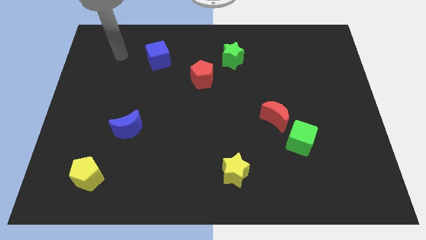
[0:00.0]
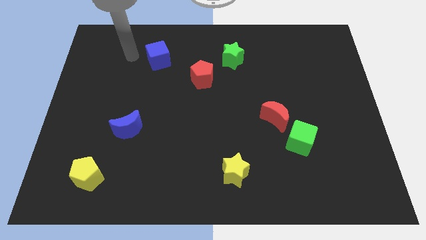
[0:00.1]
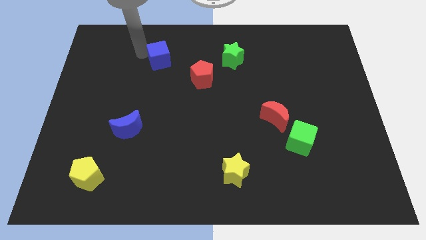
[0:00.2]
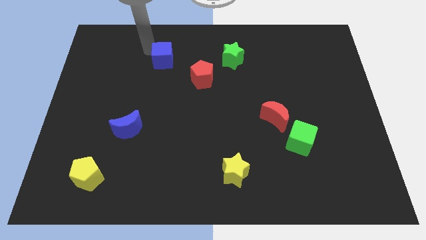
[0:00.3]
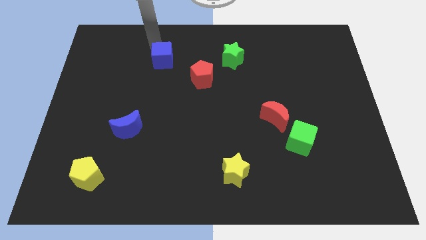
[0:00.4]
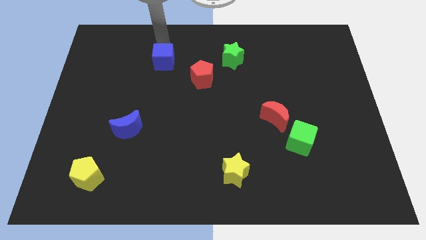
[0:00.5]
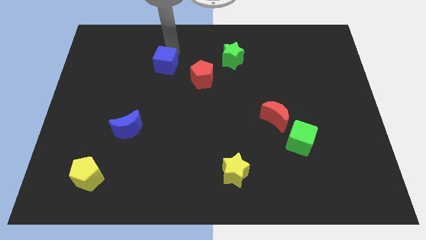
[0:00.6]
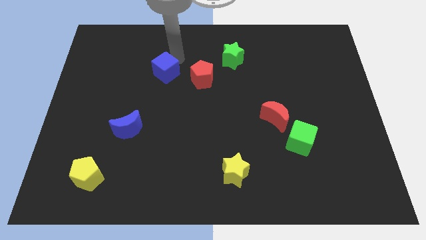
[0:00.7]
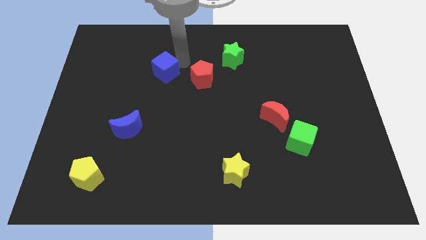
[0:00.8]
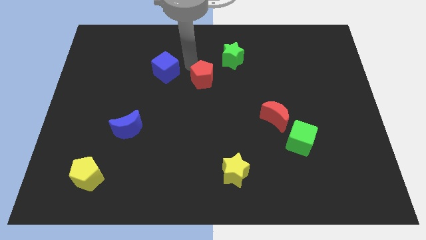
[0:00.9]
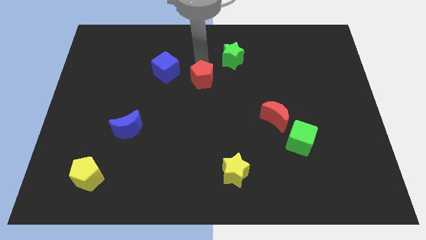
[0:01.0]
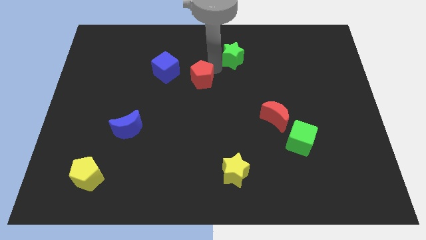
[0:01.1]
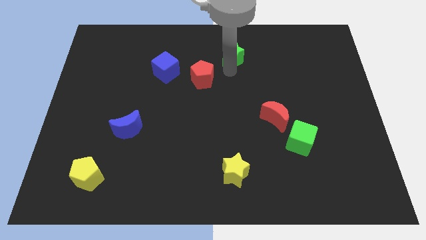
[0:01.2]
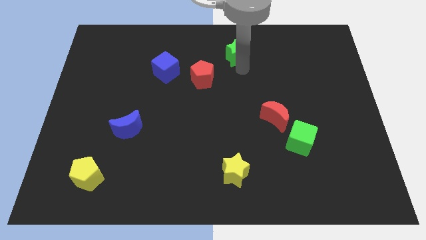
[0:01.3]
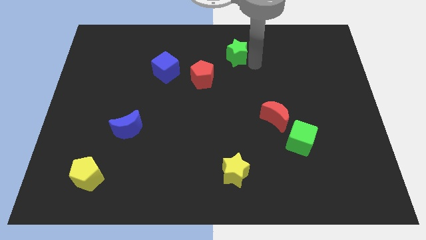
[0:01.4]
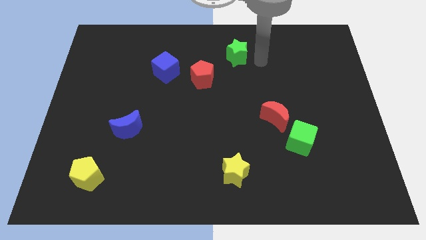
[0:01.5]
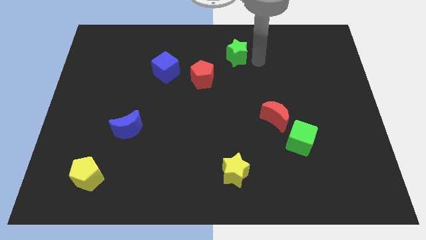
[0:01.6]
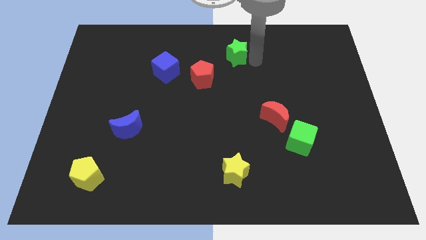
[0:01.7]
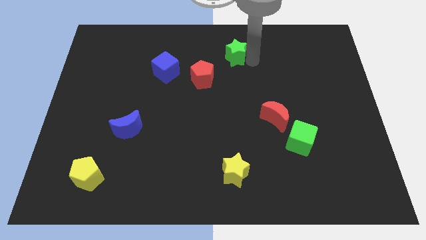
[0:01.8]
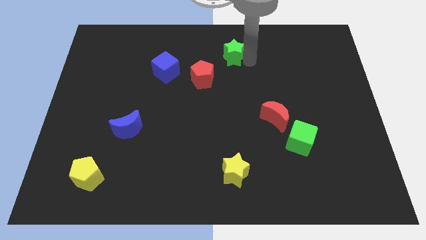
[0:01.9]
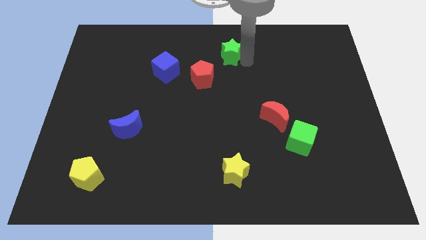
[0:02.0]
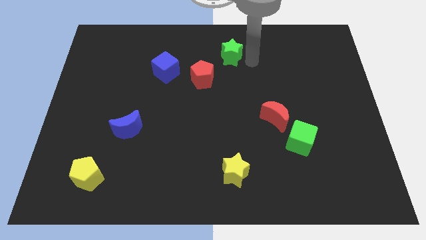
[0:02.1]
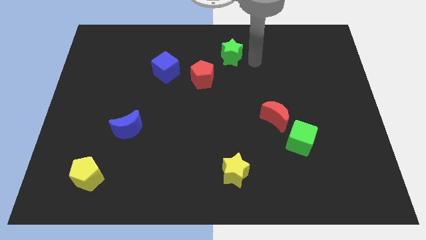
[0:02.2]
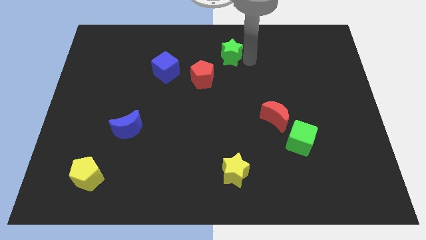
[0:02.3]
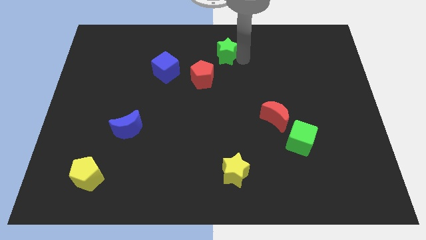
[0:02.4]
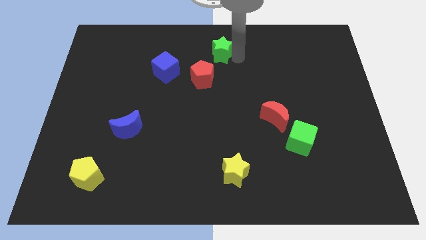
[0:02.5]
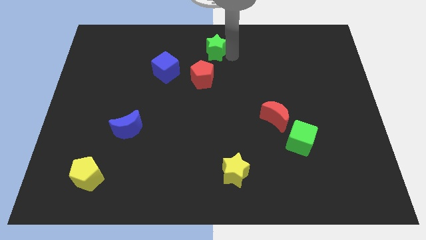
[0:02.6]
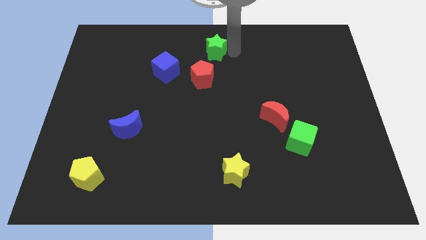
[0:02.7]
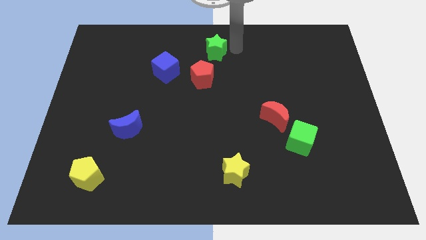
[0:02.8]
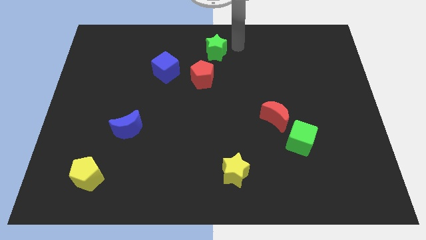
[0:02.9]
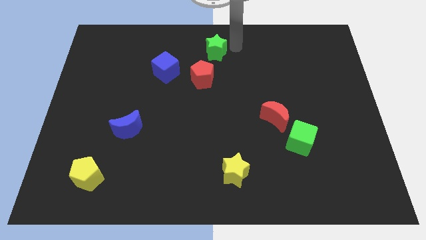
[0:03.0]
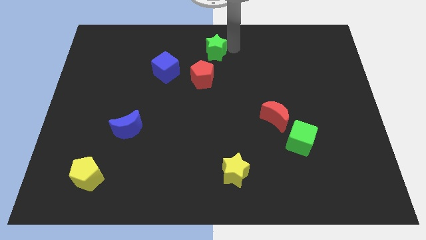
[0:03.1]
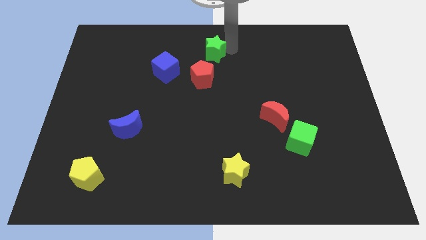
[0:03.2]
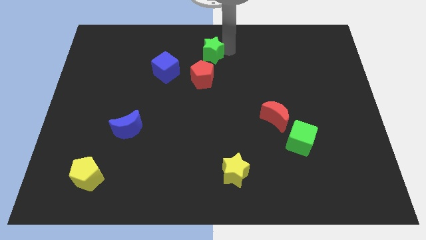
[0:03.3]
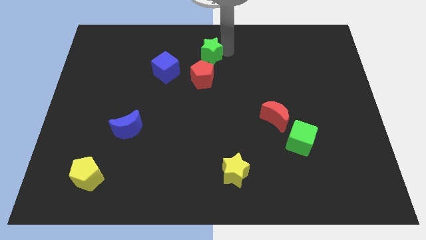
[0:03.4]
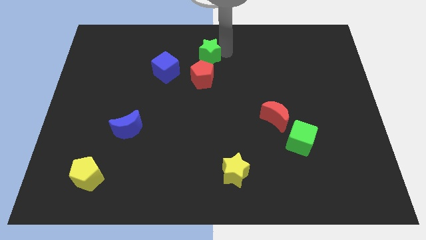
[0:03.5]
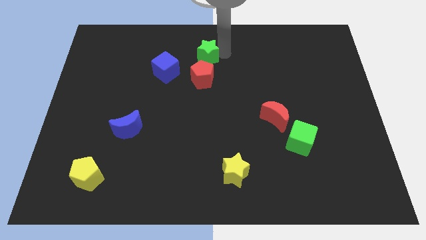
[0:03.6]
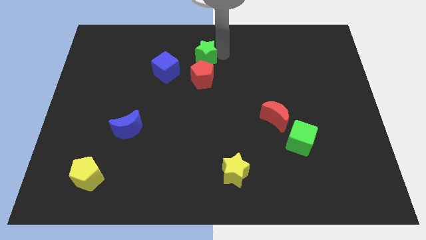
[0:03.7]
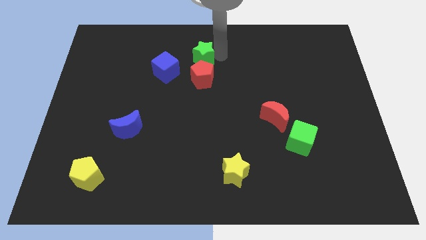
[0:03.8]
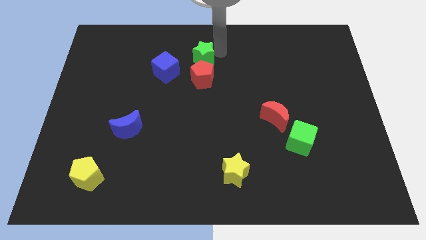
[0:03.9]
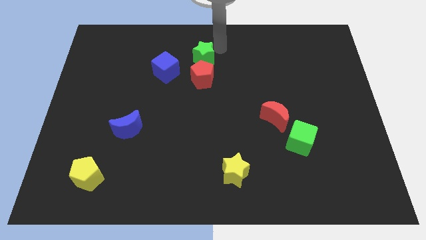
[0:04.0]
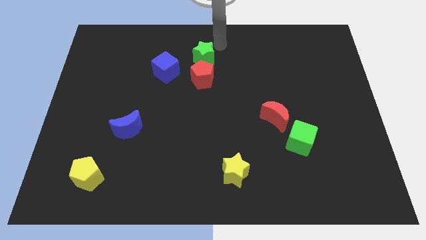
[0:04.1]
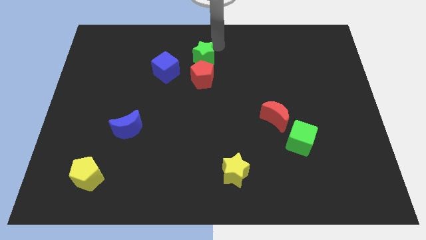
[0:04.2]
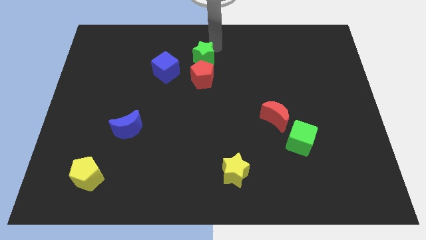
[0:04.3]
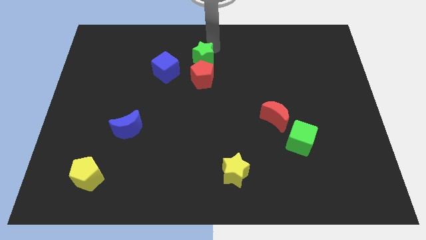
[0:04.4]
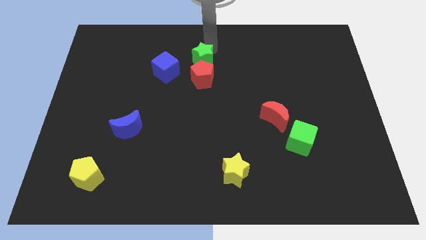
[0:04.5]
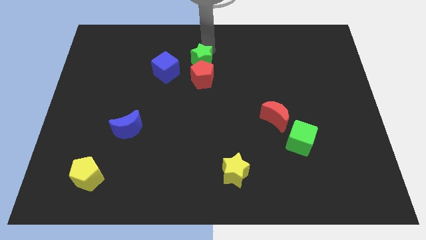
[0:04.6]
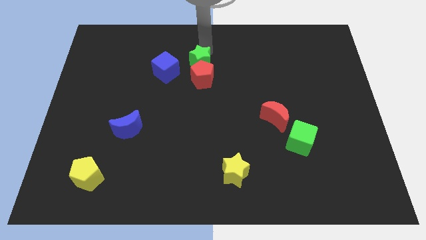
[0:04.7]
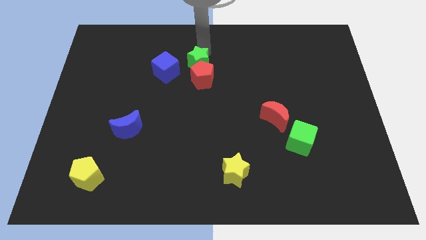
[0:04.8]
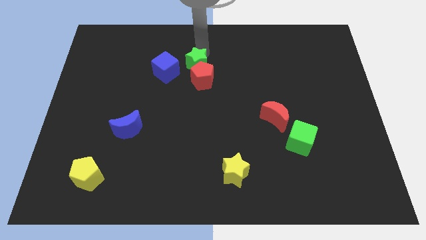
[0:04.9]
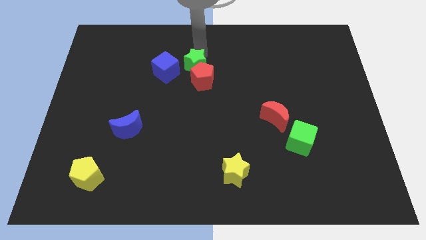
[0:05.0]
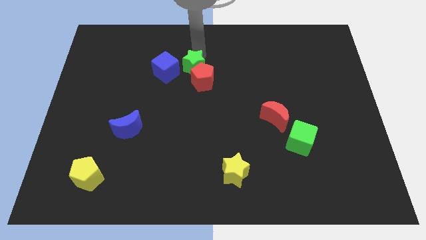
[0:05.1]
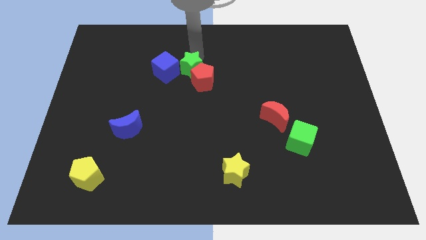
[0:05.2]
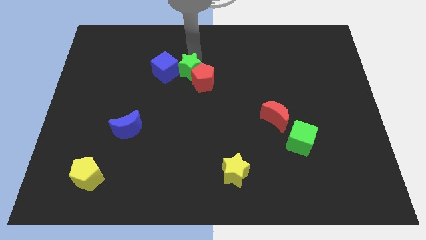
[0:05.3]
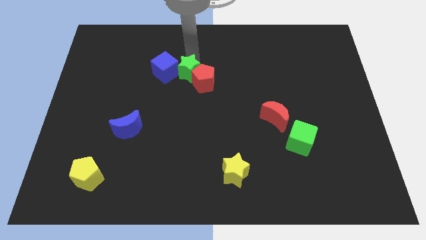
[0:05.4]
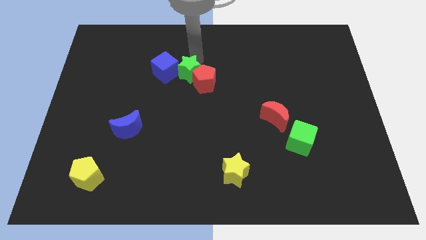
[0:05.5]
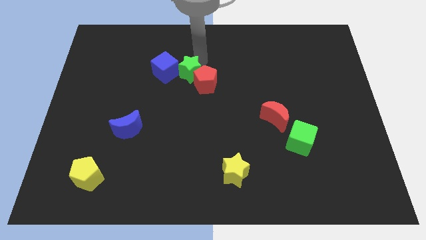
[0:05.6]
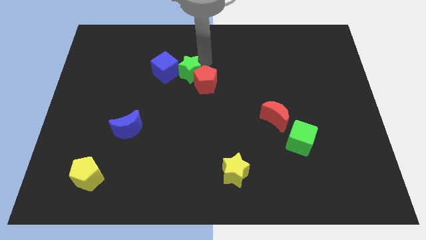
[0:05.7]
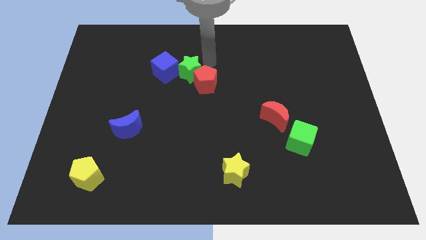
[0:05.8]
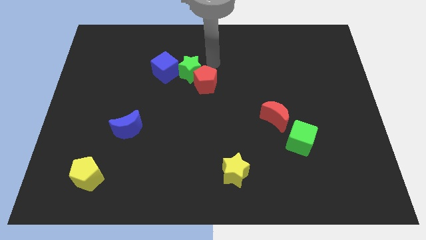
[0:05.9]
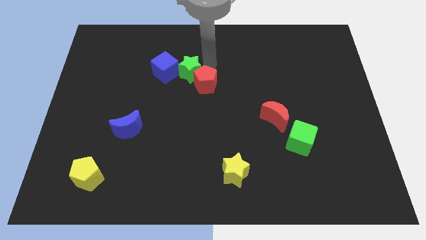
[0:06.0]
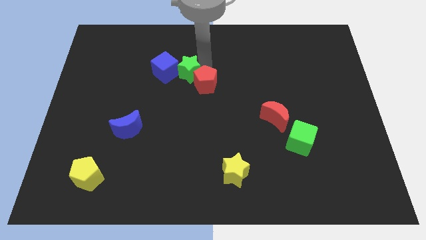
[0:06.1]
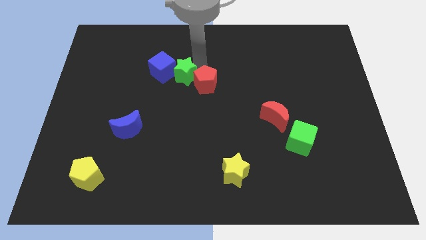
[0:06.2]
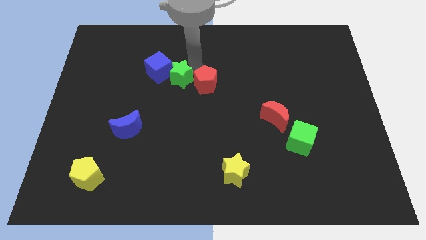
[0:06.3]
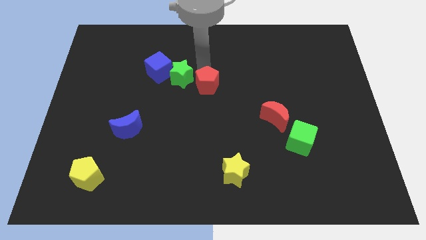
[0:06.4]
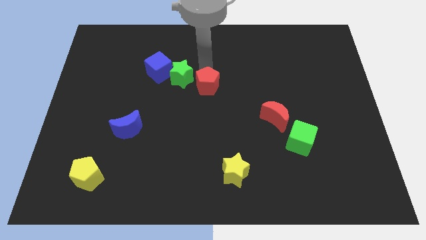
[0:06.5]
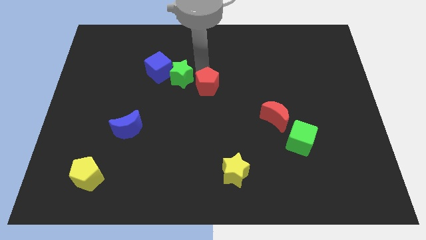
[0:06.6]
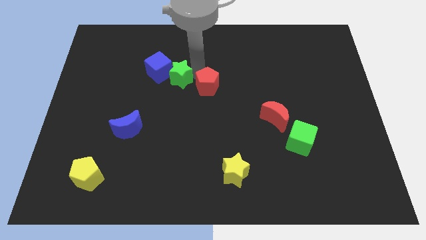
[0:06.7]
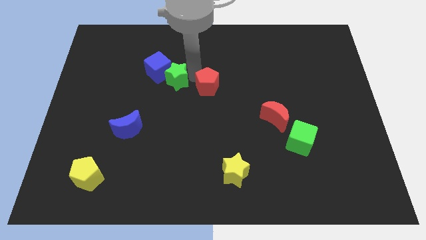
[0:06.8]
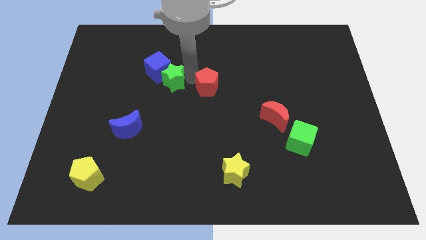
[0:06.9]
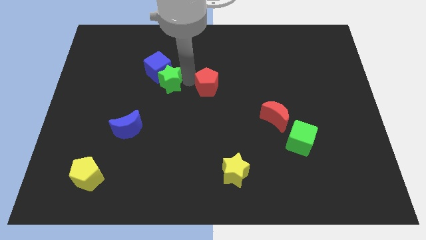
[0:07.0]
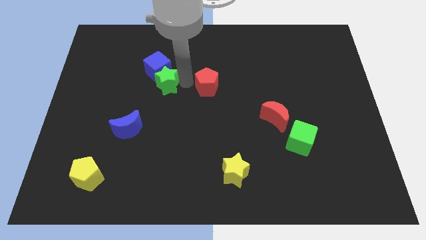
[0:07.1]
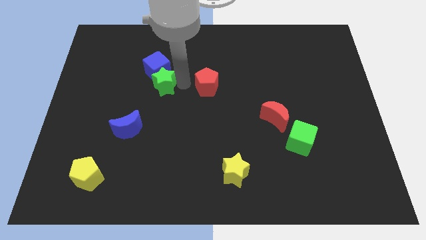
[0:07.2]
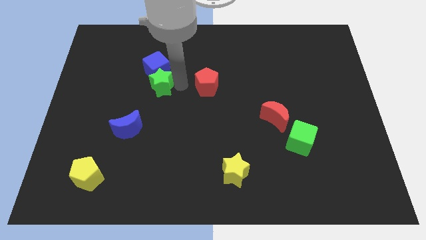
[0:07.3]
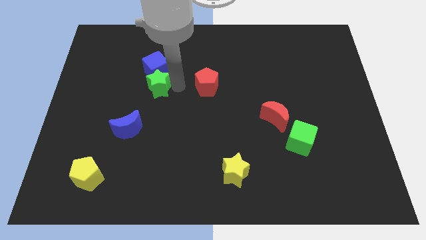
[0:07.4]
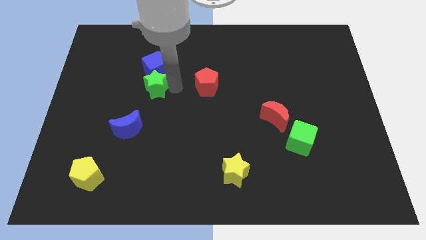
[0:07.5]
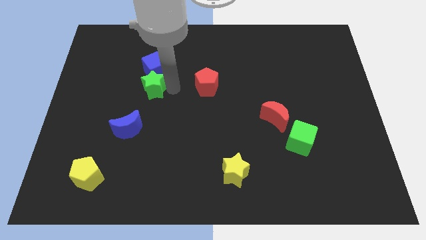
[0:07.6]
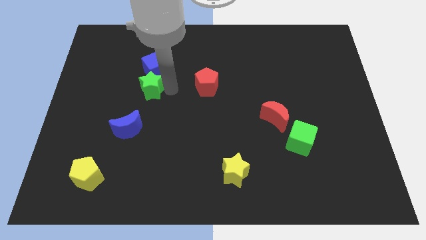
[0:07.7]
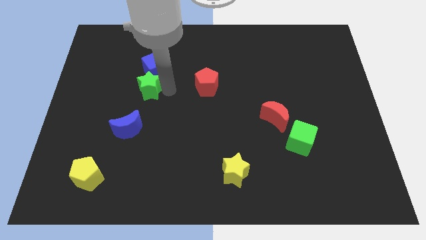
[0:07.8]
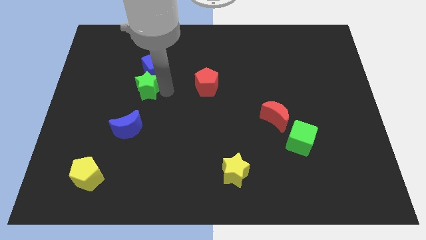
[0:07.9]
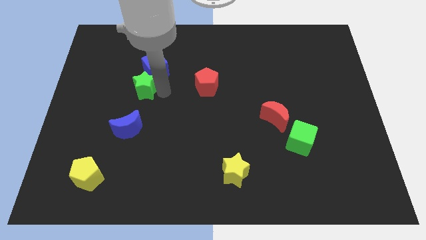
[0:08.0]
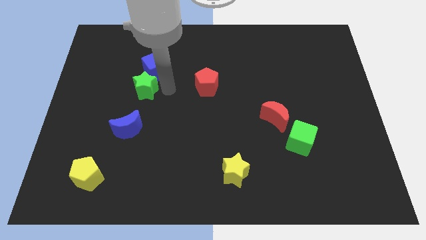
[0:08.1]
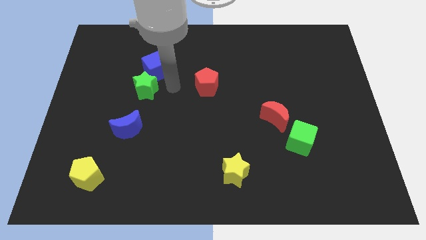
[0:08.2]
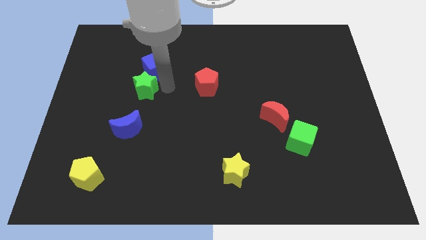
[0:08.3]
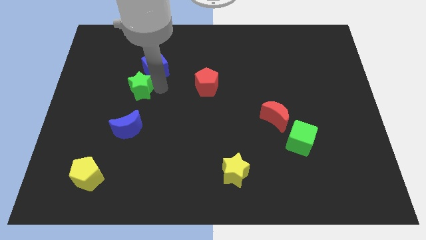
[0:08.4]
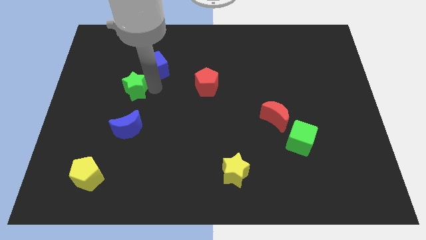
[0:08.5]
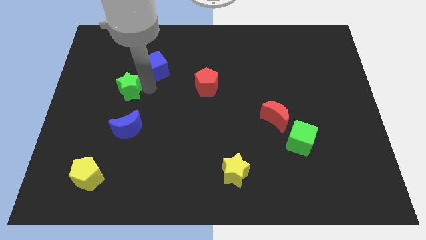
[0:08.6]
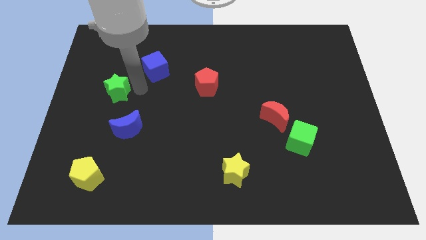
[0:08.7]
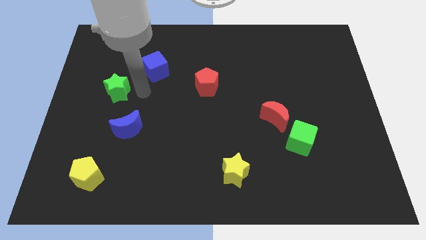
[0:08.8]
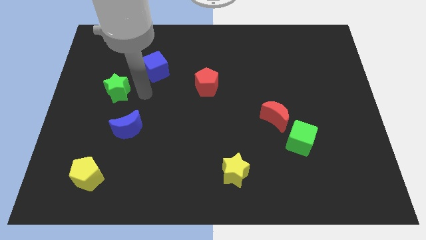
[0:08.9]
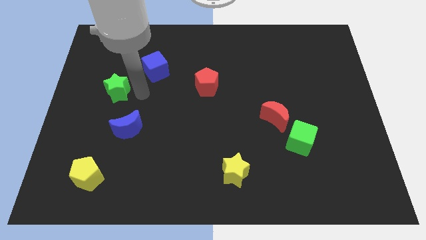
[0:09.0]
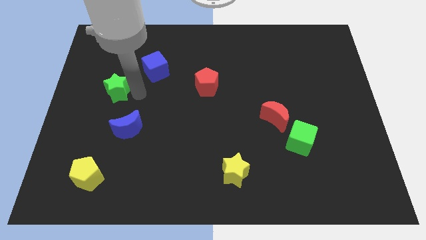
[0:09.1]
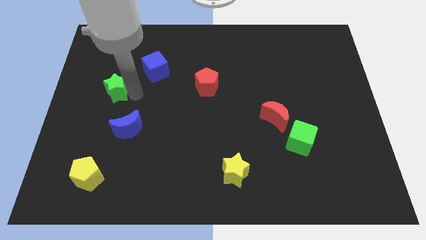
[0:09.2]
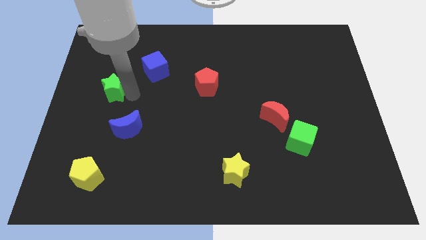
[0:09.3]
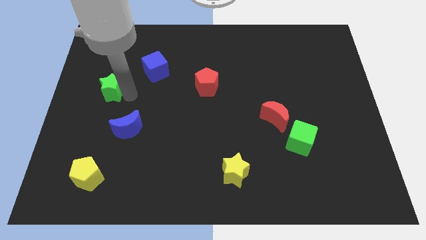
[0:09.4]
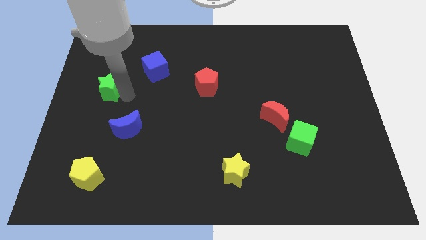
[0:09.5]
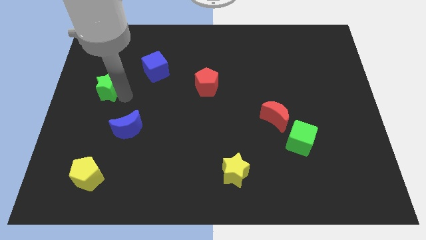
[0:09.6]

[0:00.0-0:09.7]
slide the green star to the left side of the board
